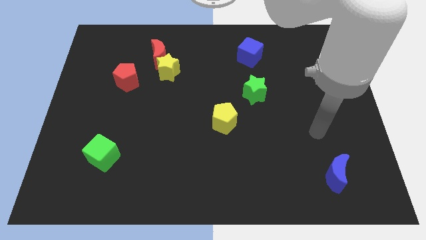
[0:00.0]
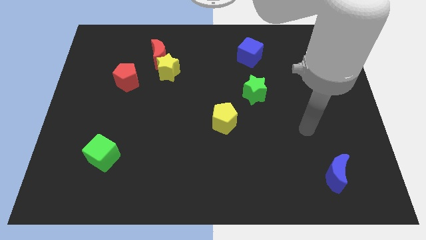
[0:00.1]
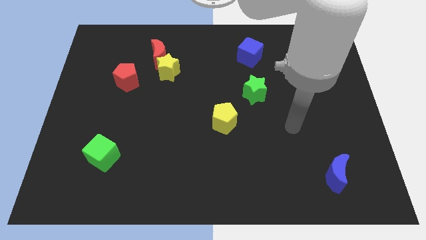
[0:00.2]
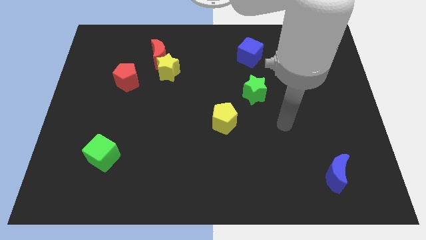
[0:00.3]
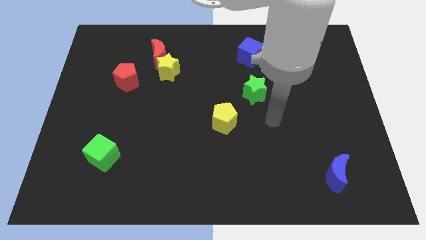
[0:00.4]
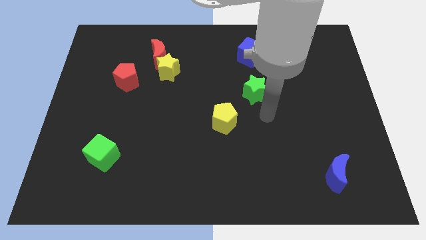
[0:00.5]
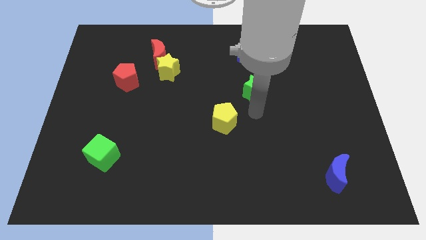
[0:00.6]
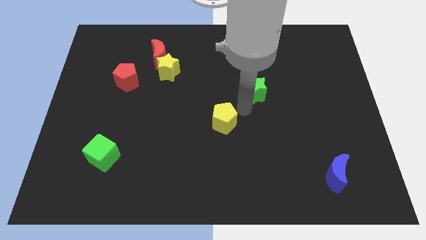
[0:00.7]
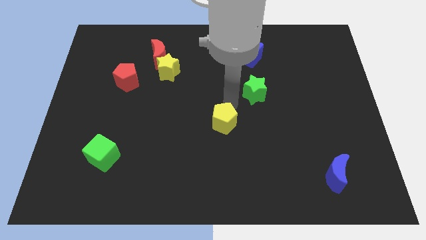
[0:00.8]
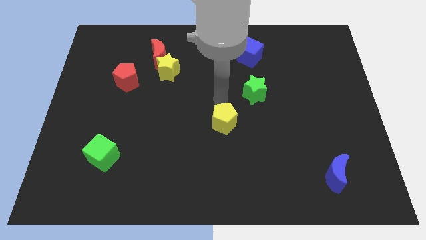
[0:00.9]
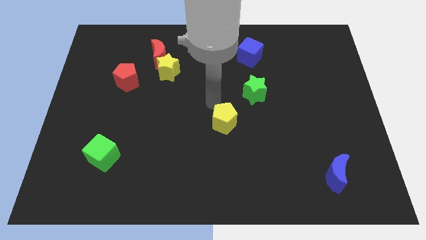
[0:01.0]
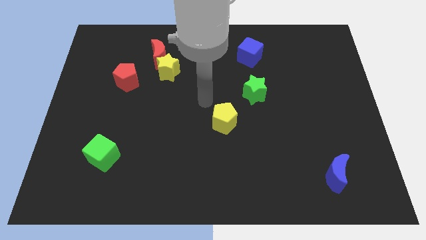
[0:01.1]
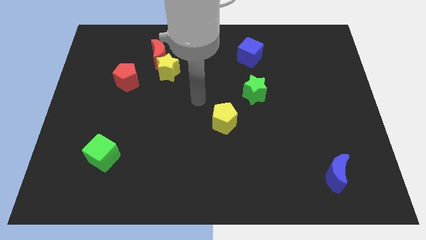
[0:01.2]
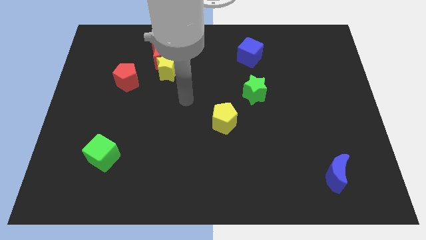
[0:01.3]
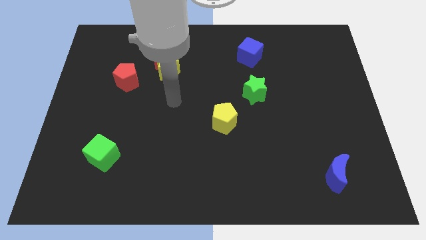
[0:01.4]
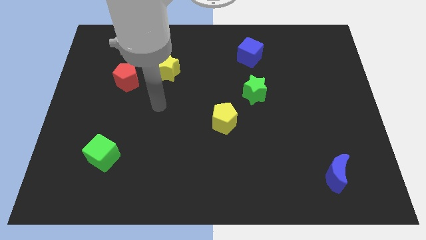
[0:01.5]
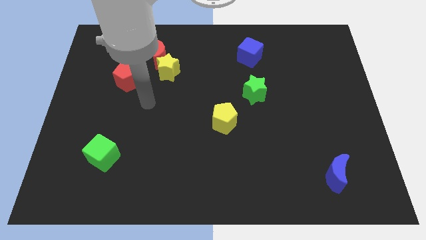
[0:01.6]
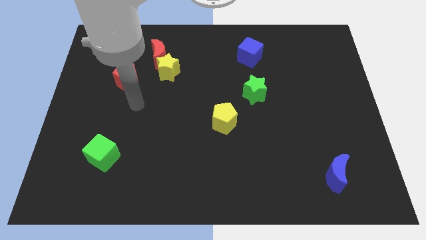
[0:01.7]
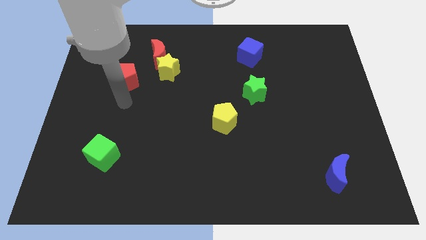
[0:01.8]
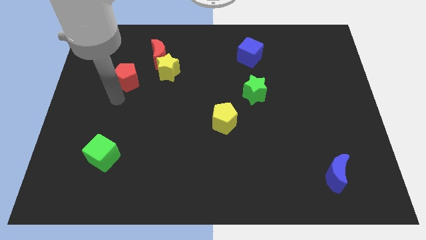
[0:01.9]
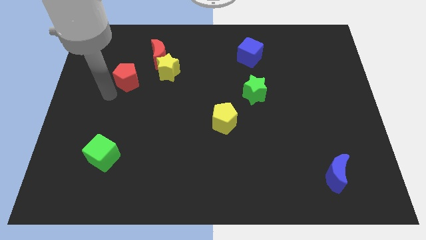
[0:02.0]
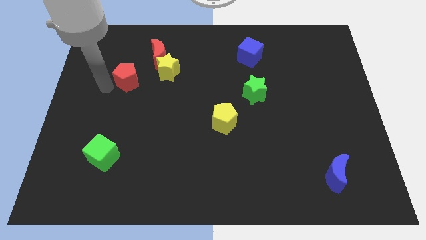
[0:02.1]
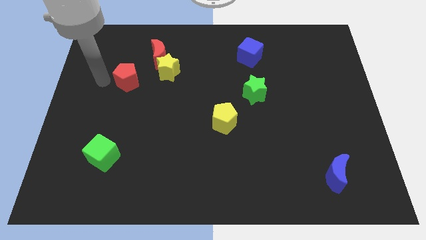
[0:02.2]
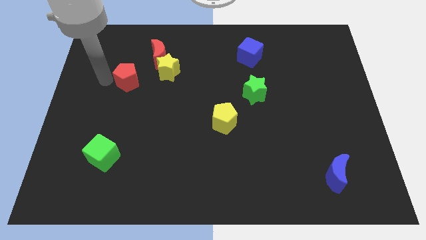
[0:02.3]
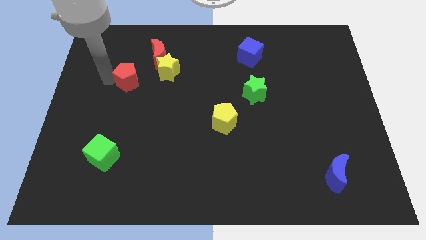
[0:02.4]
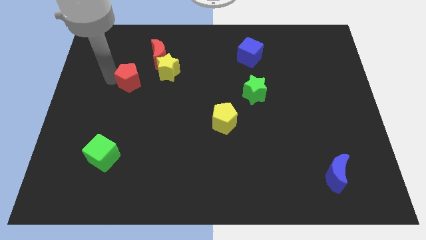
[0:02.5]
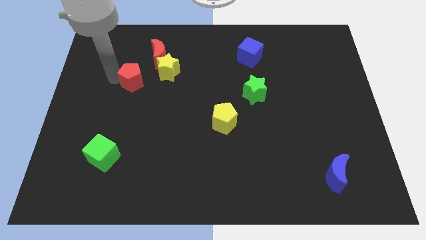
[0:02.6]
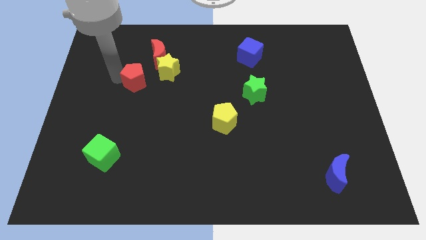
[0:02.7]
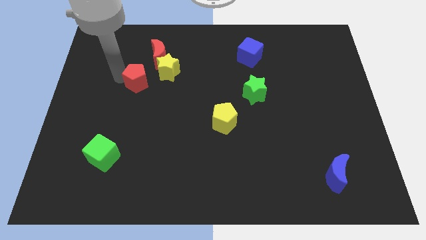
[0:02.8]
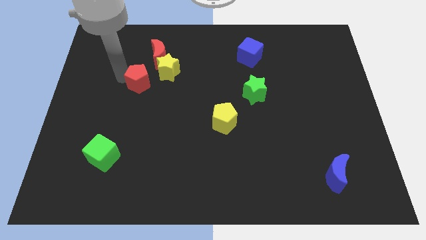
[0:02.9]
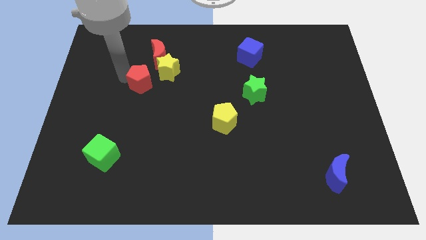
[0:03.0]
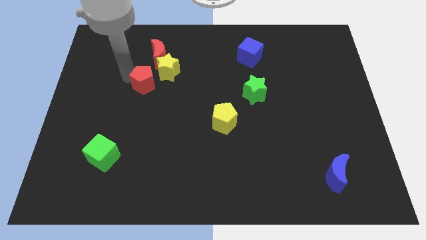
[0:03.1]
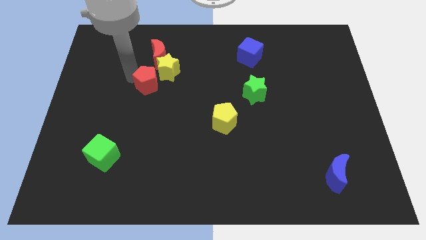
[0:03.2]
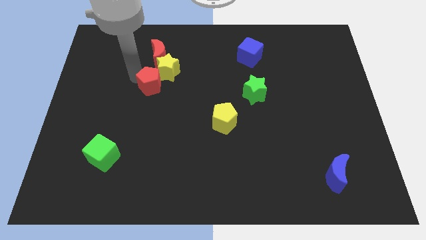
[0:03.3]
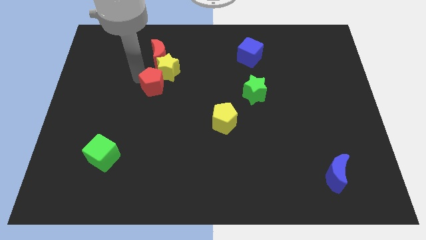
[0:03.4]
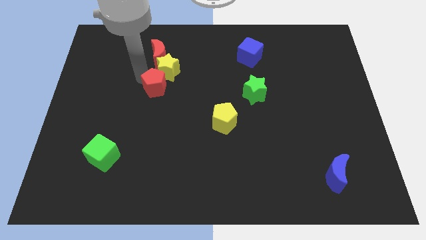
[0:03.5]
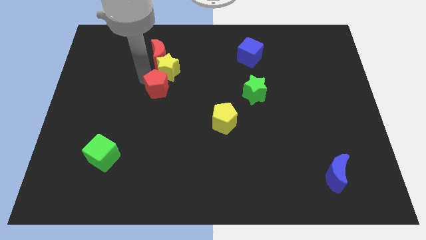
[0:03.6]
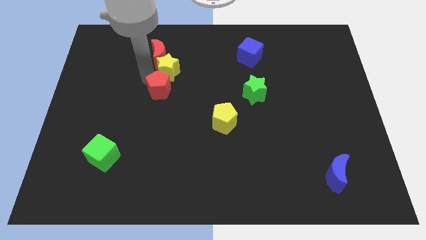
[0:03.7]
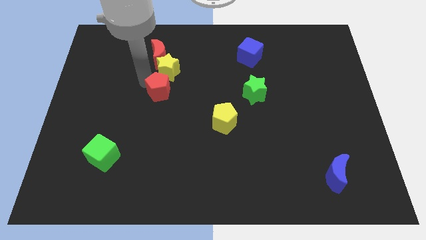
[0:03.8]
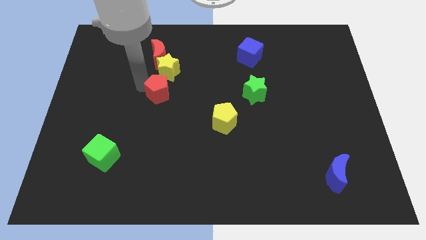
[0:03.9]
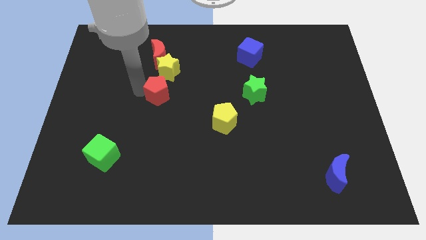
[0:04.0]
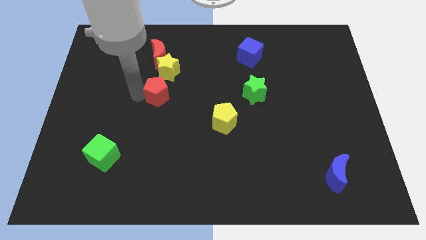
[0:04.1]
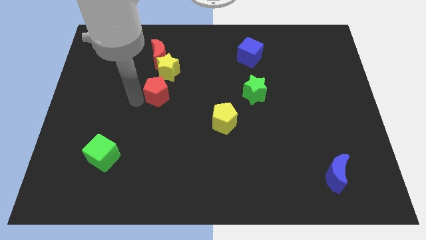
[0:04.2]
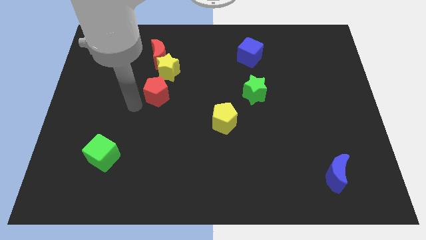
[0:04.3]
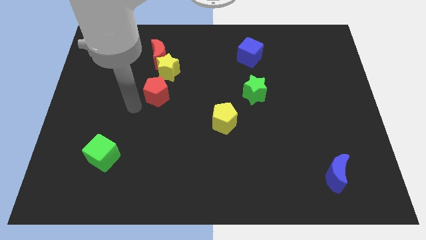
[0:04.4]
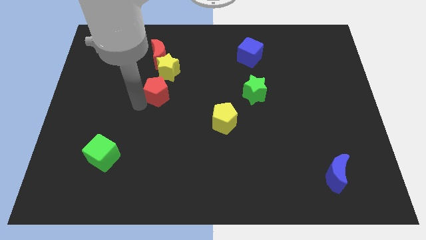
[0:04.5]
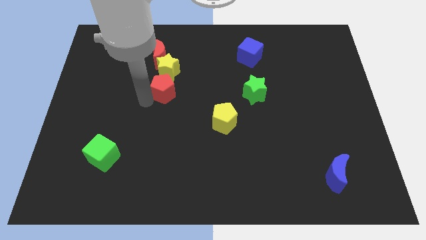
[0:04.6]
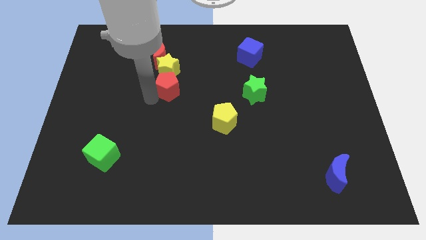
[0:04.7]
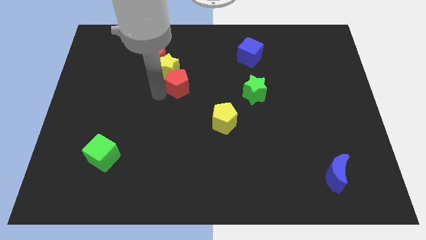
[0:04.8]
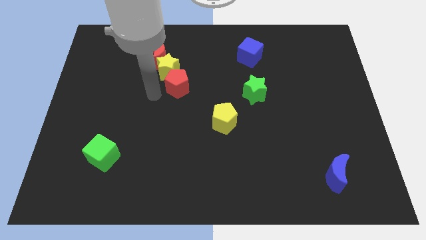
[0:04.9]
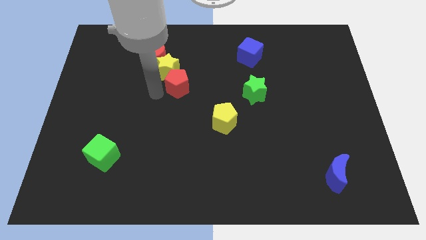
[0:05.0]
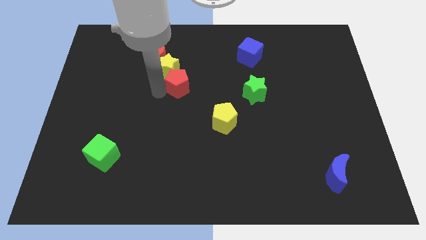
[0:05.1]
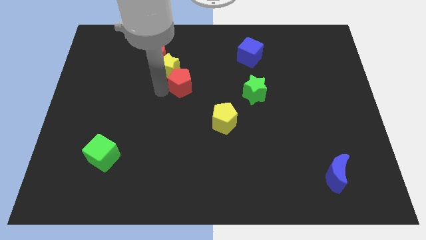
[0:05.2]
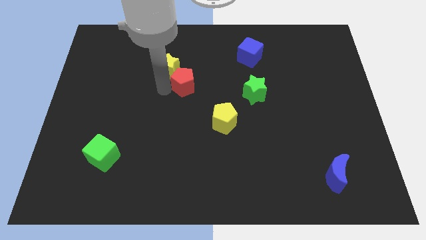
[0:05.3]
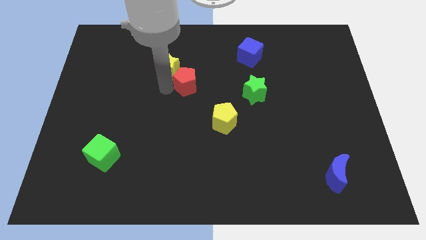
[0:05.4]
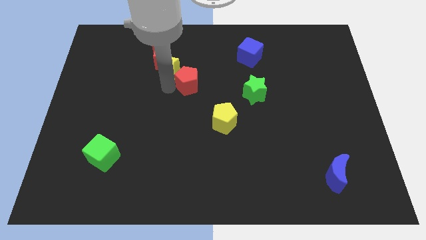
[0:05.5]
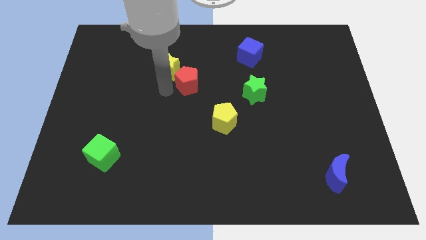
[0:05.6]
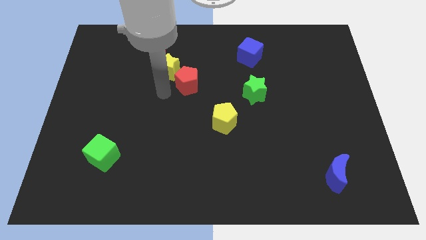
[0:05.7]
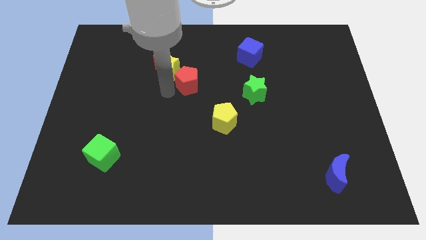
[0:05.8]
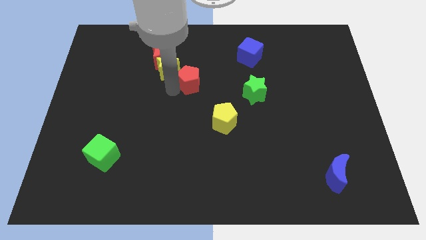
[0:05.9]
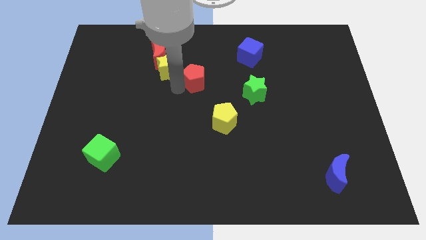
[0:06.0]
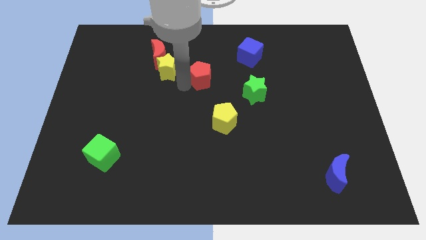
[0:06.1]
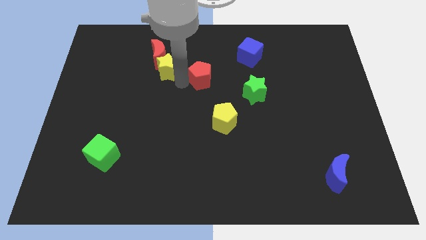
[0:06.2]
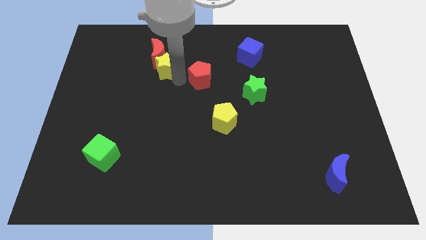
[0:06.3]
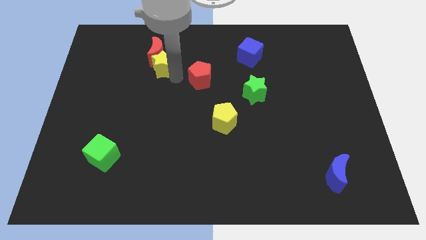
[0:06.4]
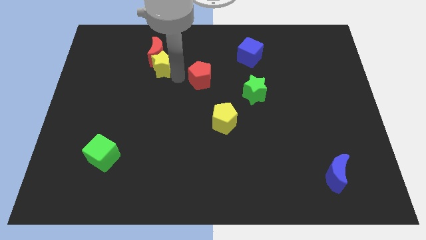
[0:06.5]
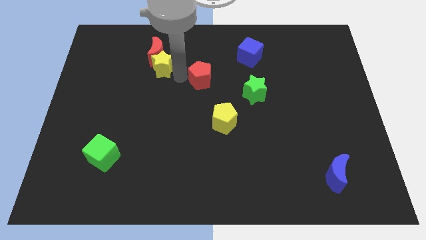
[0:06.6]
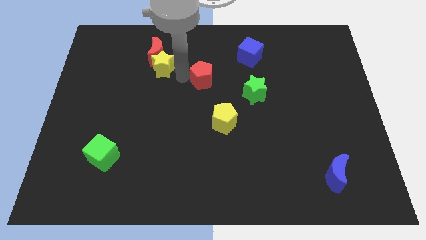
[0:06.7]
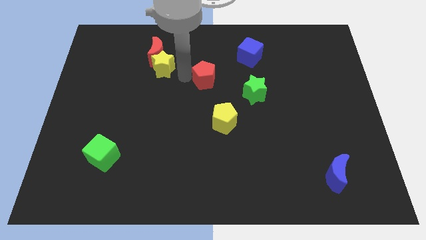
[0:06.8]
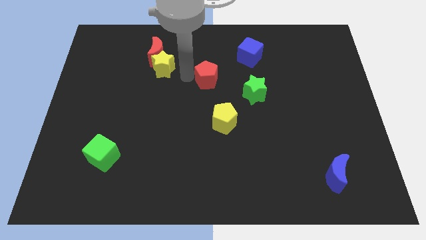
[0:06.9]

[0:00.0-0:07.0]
push the red pentagon to the right

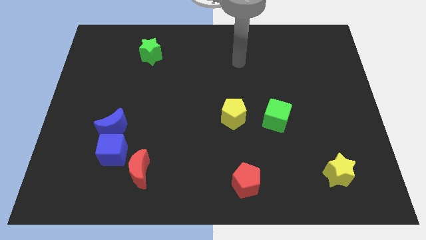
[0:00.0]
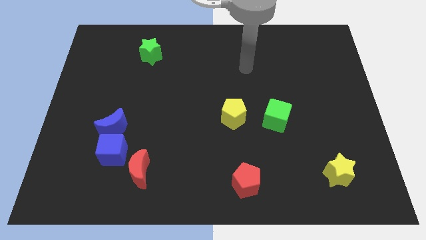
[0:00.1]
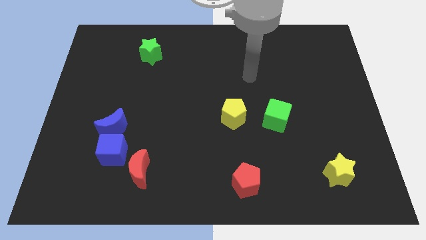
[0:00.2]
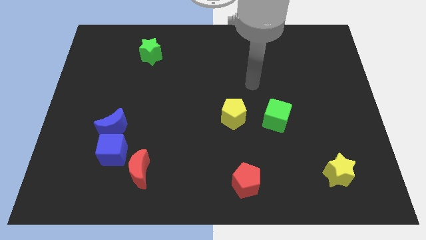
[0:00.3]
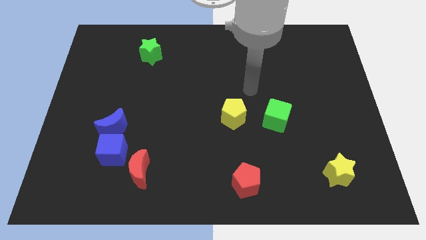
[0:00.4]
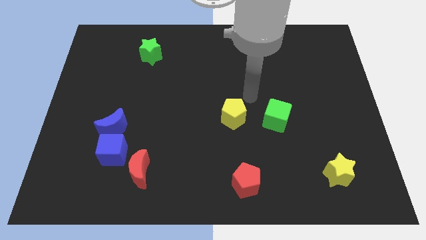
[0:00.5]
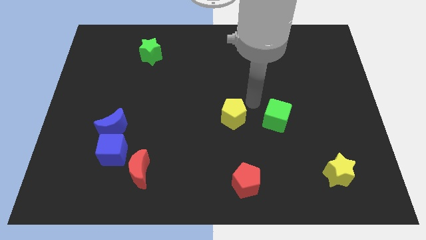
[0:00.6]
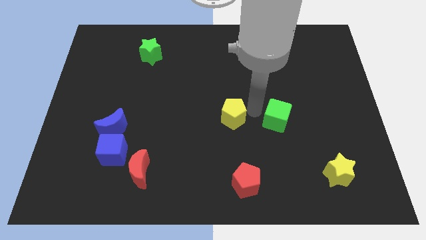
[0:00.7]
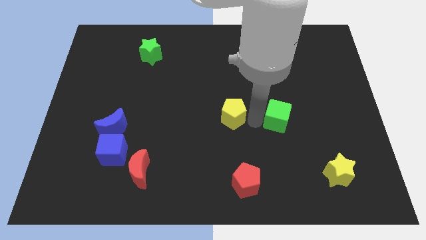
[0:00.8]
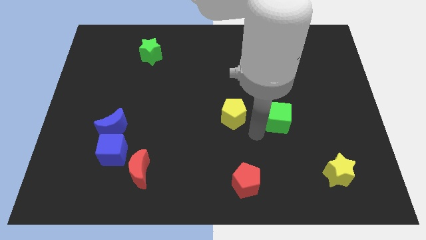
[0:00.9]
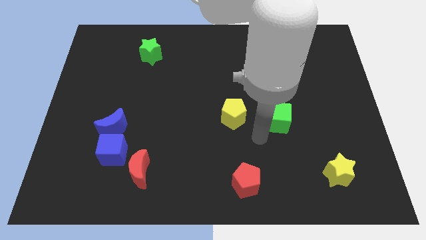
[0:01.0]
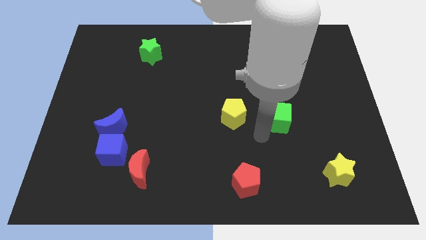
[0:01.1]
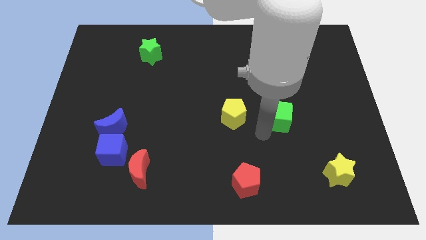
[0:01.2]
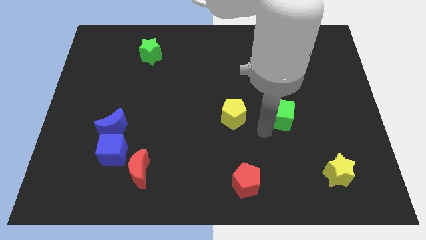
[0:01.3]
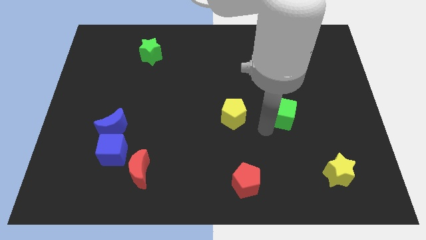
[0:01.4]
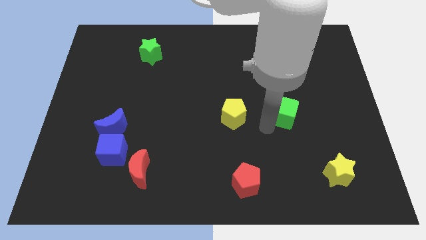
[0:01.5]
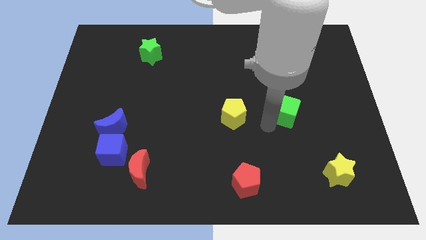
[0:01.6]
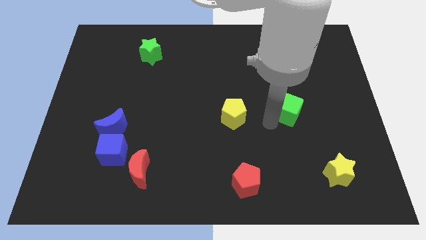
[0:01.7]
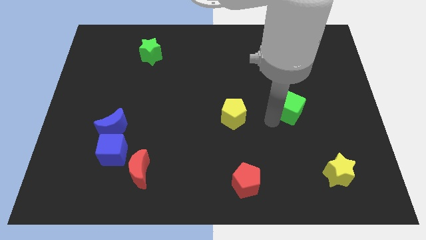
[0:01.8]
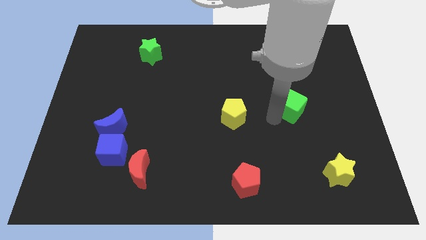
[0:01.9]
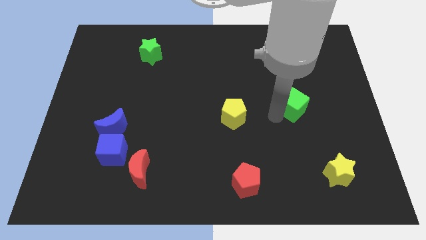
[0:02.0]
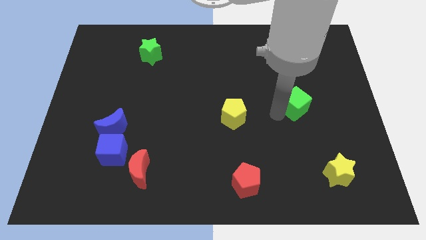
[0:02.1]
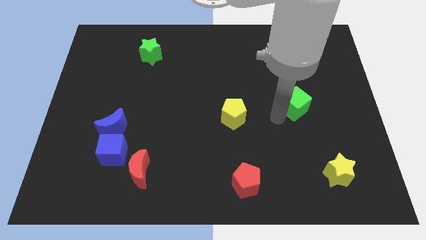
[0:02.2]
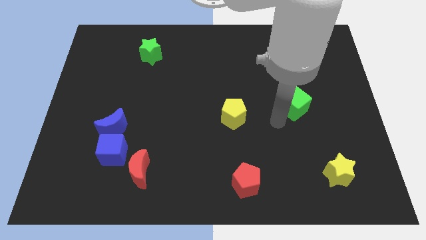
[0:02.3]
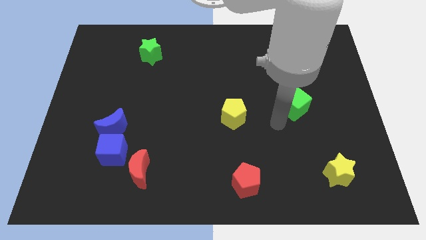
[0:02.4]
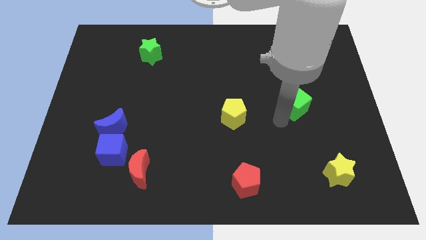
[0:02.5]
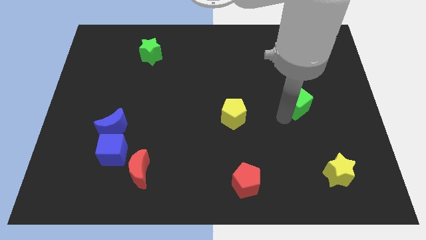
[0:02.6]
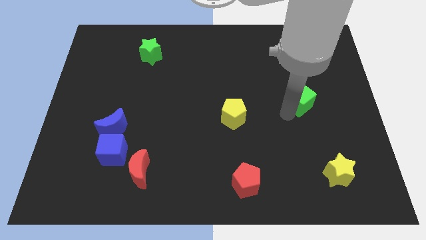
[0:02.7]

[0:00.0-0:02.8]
slightly push the green cube diagonally up and to the right
